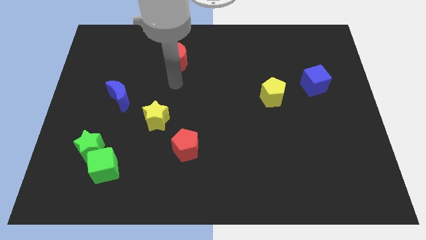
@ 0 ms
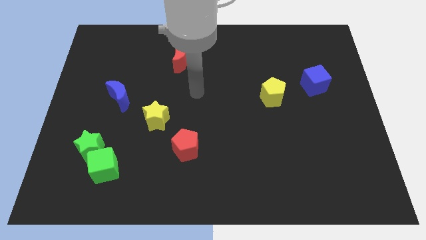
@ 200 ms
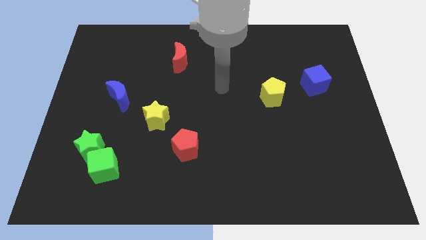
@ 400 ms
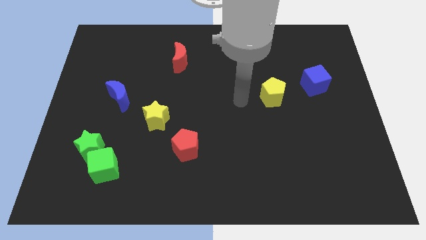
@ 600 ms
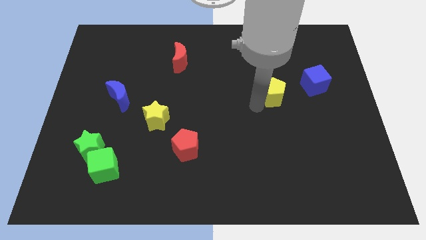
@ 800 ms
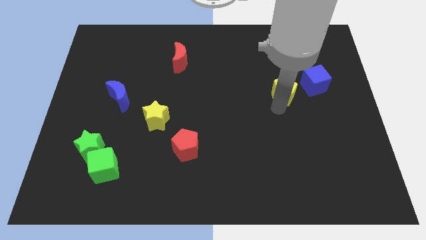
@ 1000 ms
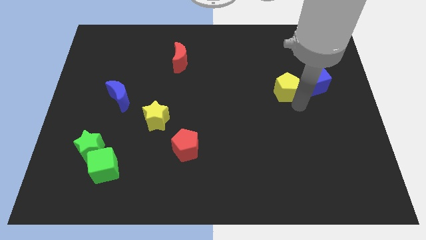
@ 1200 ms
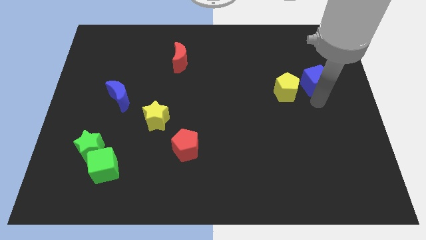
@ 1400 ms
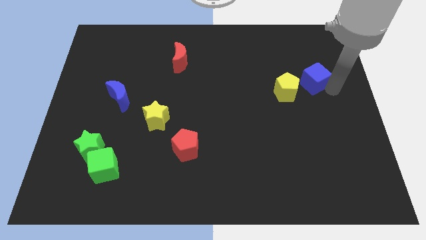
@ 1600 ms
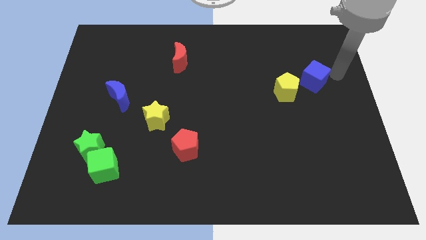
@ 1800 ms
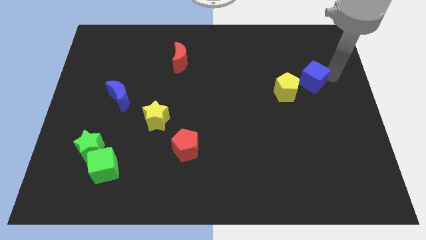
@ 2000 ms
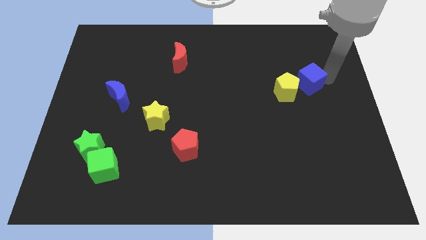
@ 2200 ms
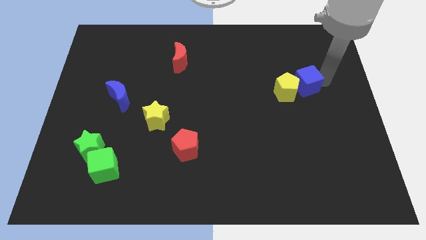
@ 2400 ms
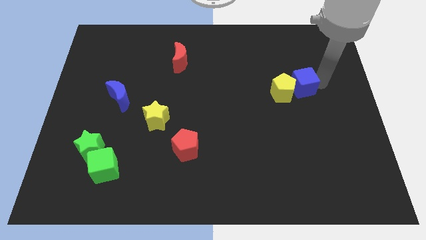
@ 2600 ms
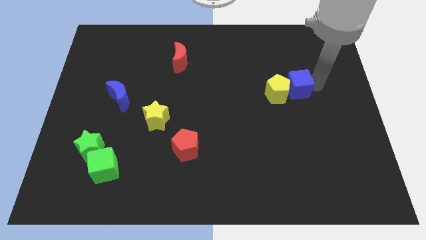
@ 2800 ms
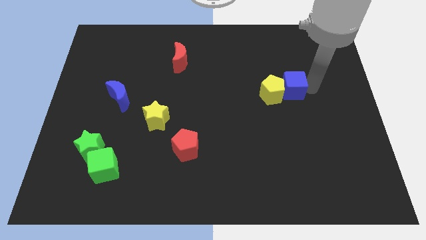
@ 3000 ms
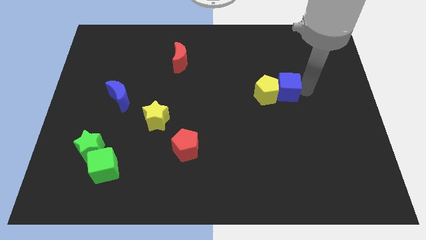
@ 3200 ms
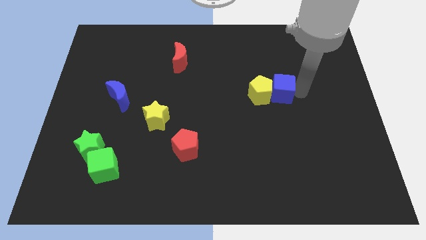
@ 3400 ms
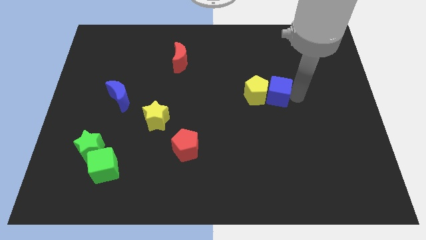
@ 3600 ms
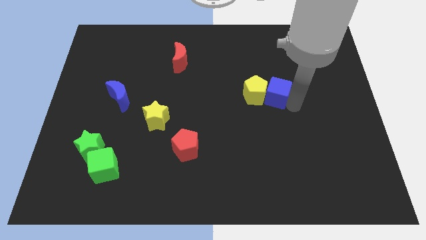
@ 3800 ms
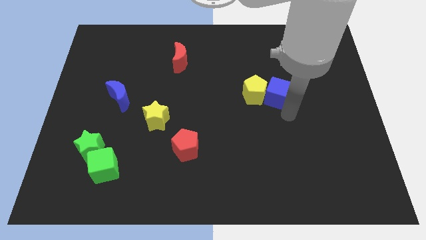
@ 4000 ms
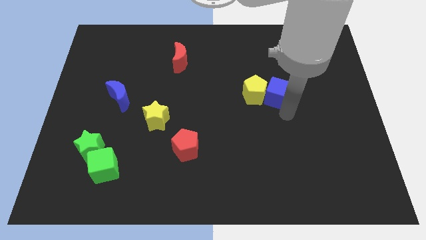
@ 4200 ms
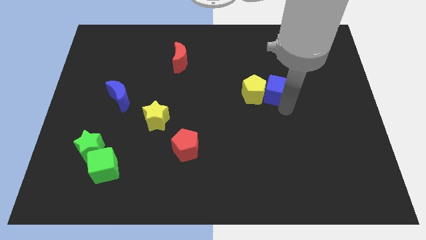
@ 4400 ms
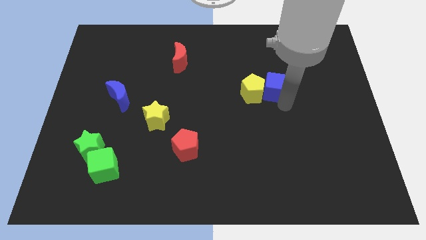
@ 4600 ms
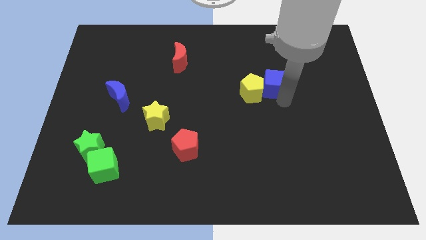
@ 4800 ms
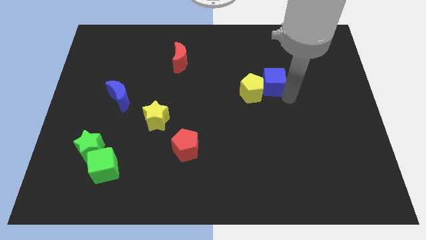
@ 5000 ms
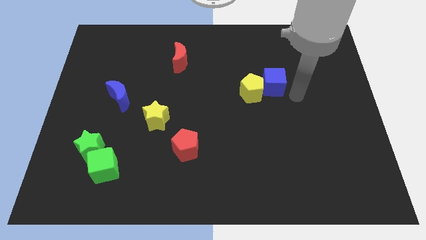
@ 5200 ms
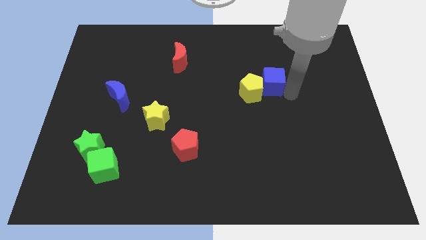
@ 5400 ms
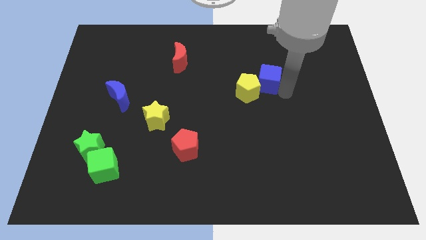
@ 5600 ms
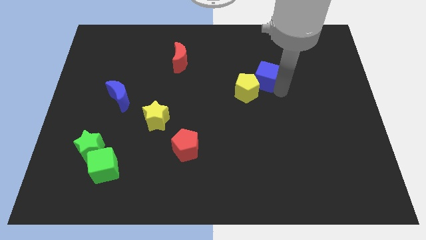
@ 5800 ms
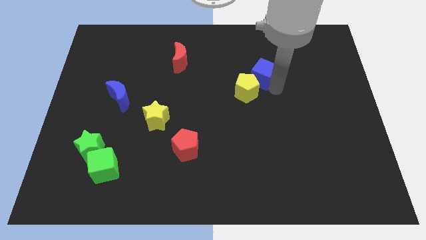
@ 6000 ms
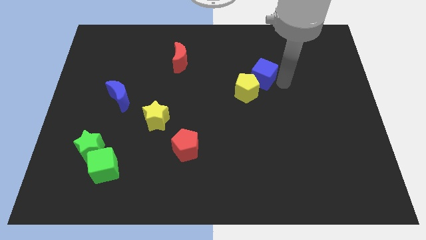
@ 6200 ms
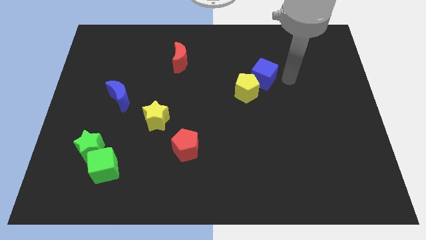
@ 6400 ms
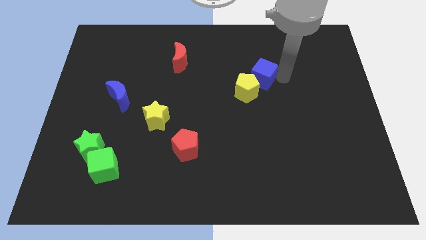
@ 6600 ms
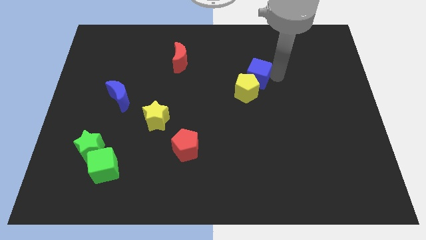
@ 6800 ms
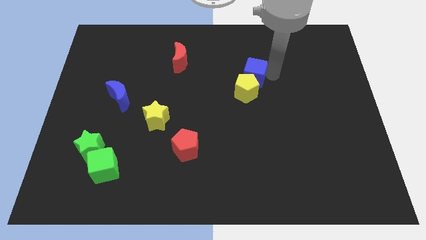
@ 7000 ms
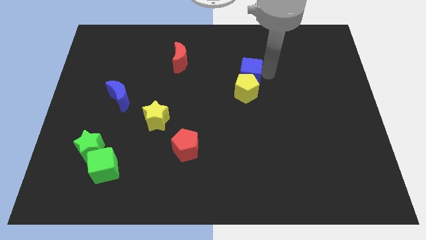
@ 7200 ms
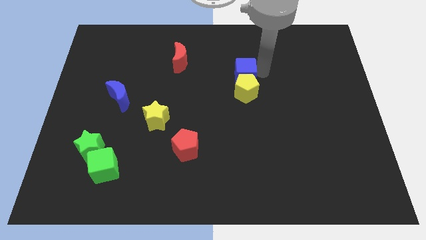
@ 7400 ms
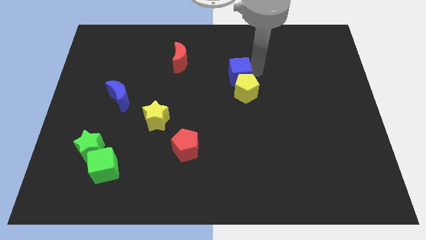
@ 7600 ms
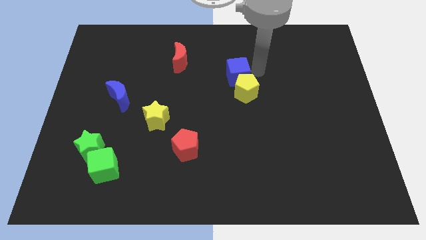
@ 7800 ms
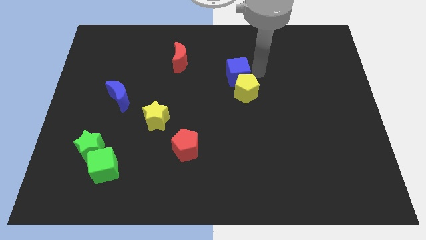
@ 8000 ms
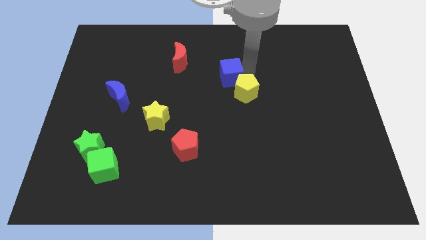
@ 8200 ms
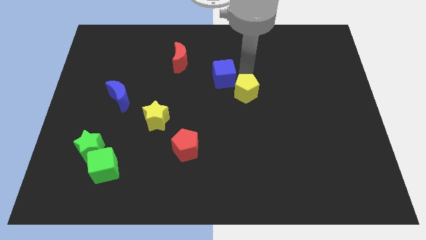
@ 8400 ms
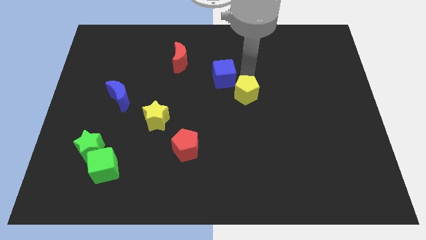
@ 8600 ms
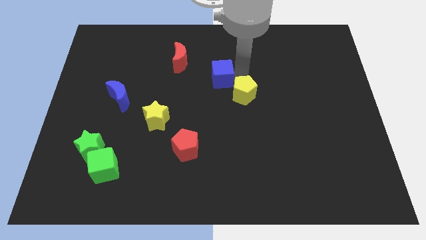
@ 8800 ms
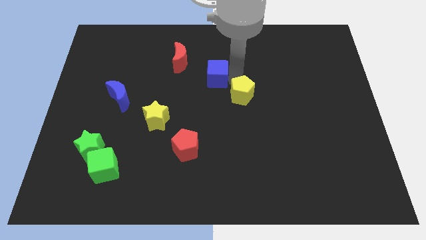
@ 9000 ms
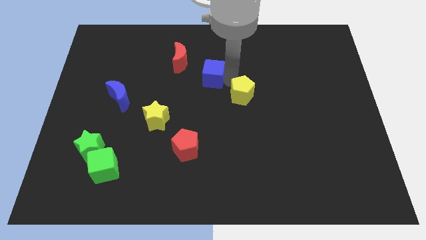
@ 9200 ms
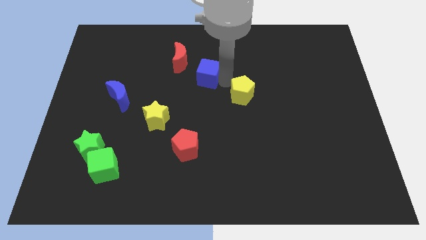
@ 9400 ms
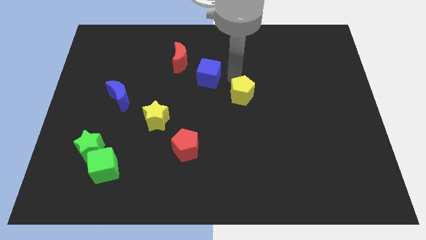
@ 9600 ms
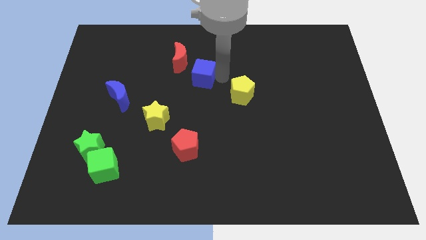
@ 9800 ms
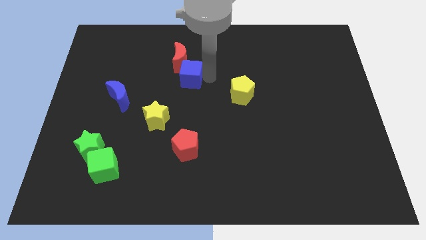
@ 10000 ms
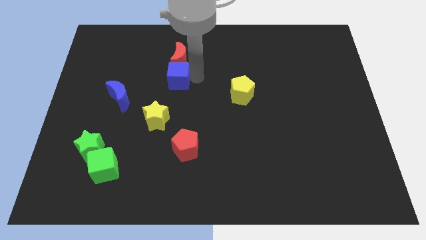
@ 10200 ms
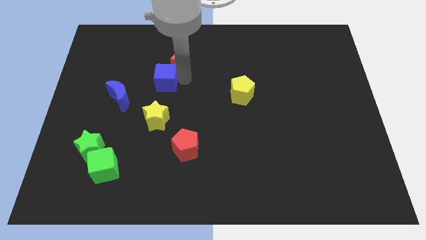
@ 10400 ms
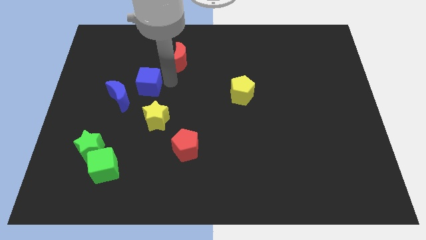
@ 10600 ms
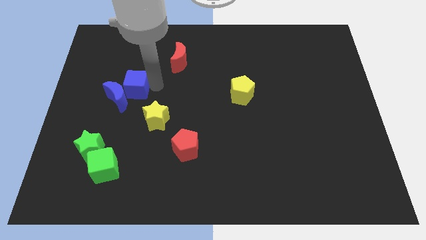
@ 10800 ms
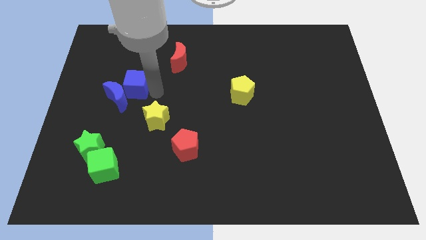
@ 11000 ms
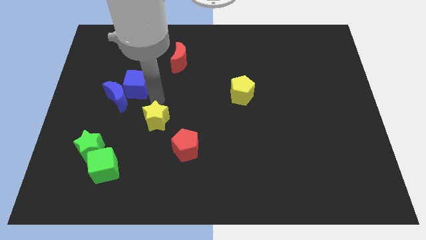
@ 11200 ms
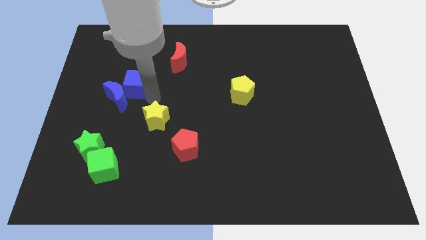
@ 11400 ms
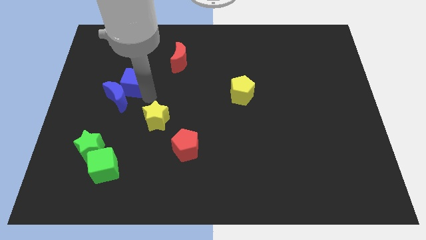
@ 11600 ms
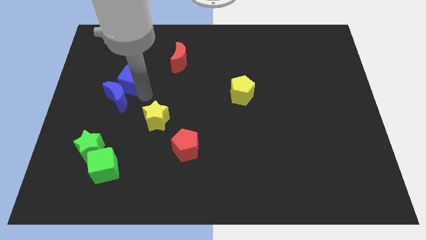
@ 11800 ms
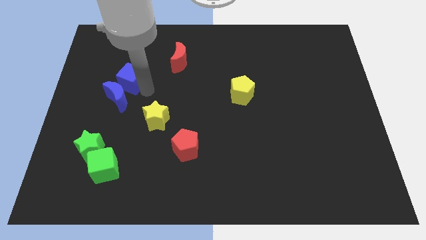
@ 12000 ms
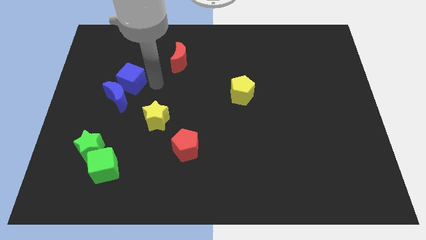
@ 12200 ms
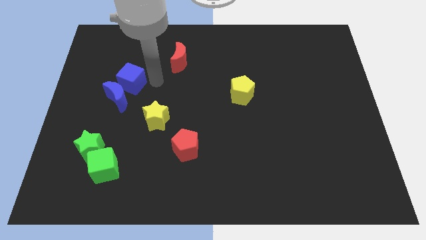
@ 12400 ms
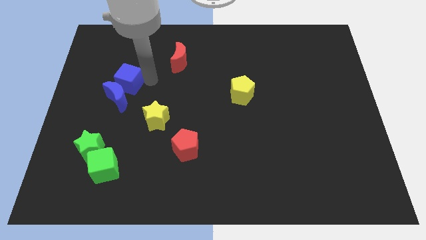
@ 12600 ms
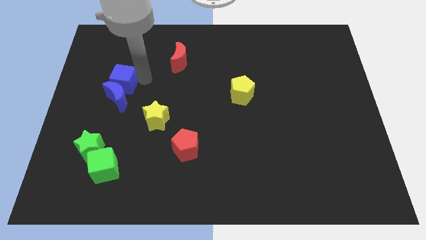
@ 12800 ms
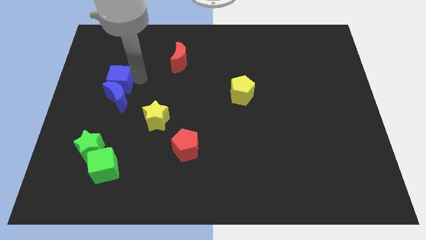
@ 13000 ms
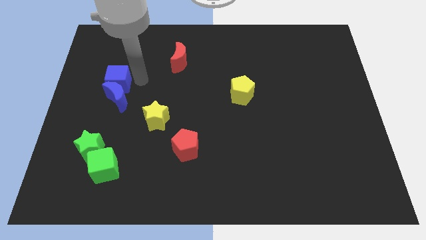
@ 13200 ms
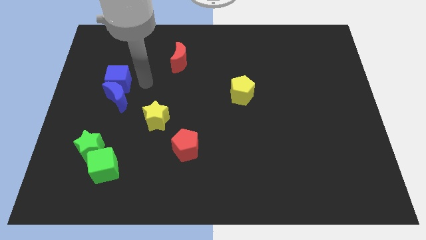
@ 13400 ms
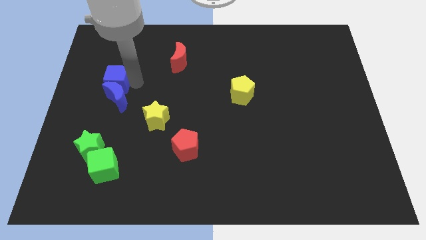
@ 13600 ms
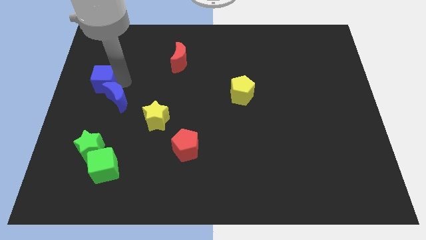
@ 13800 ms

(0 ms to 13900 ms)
slide the blue cube to the center left
